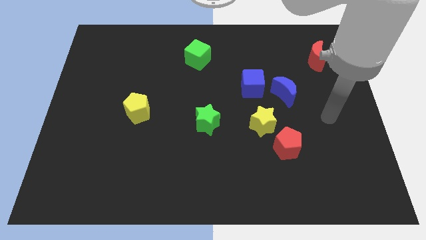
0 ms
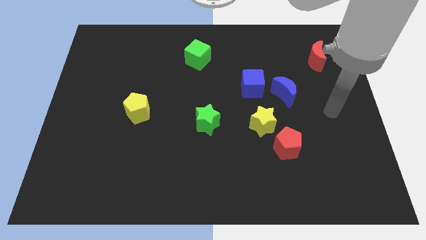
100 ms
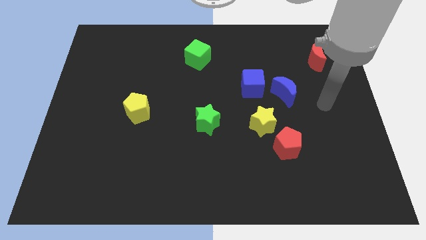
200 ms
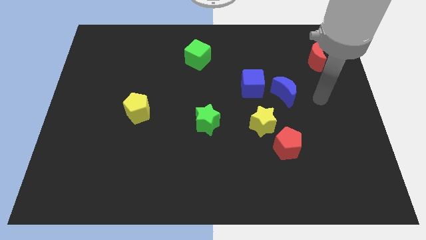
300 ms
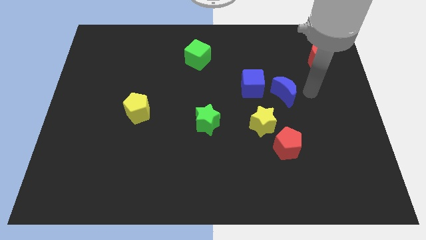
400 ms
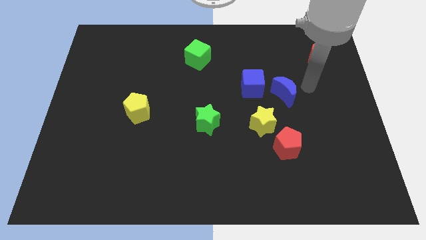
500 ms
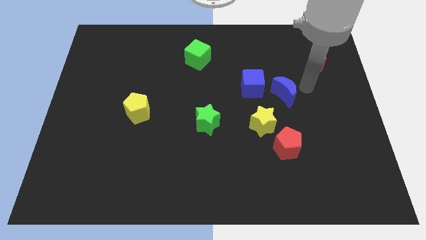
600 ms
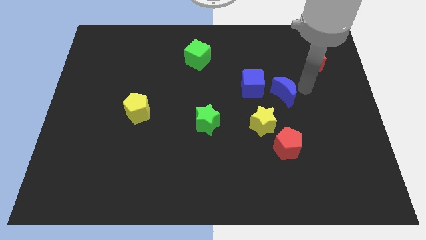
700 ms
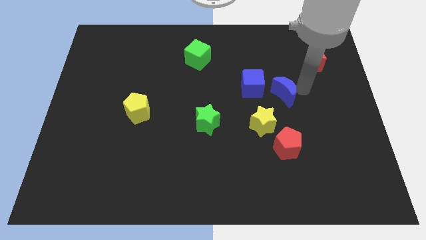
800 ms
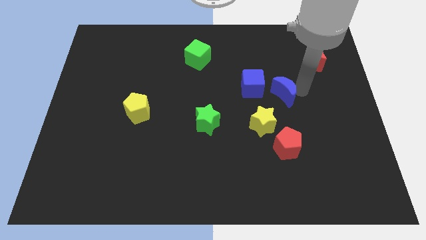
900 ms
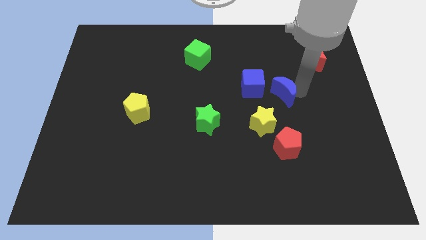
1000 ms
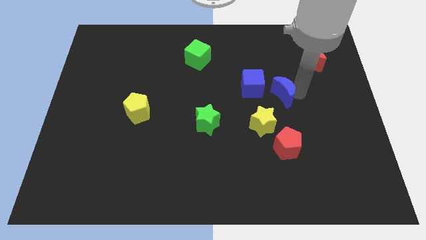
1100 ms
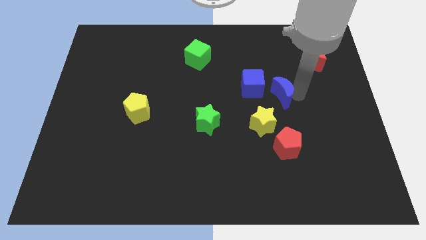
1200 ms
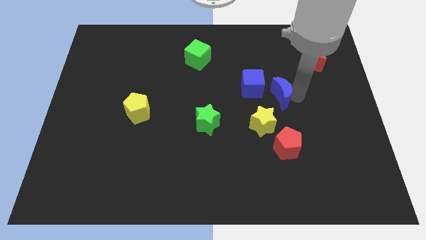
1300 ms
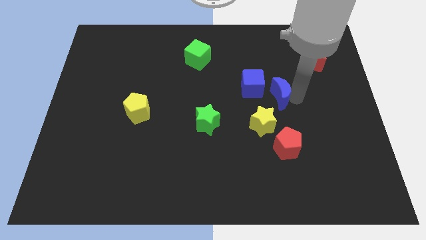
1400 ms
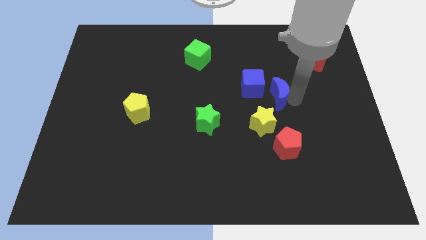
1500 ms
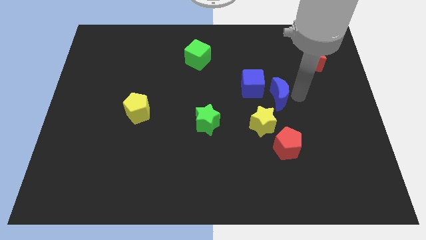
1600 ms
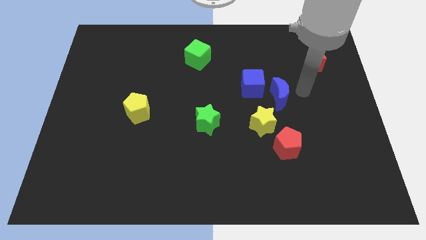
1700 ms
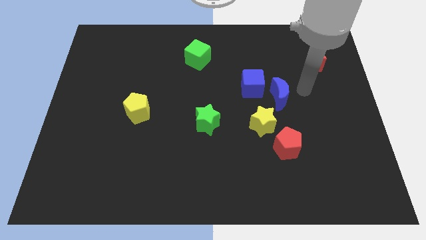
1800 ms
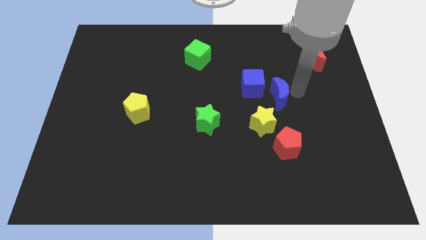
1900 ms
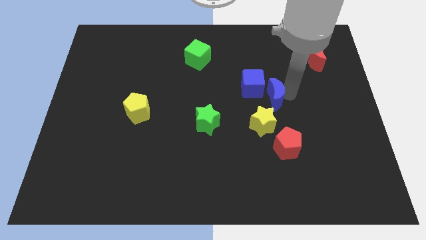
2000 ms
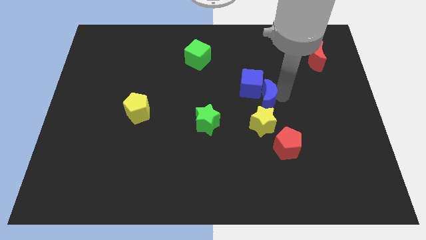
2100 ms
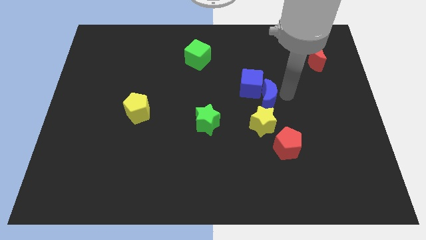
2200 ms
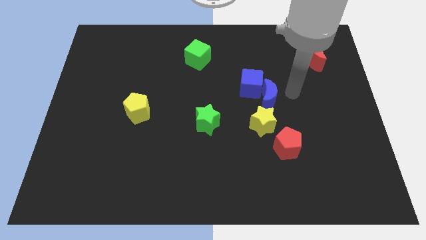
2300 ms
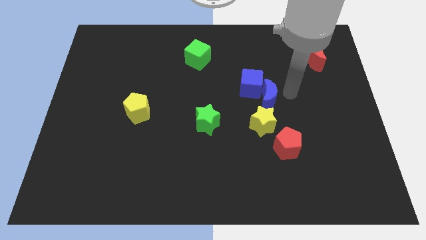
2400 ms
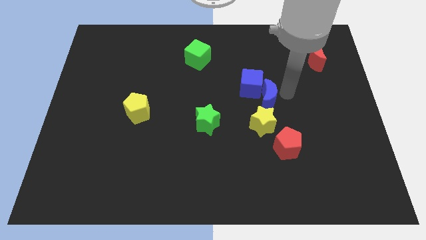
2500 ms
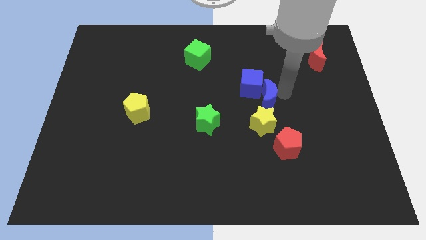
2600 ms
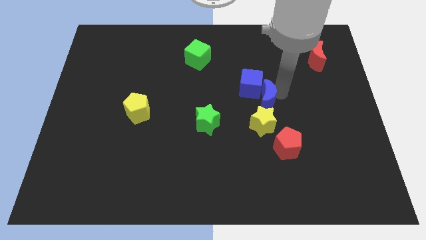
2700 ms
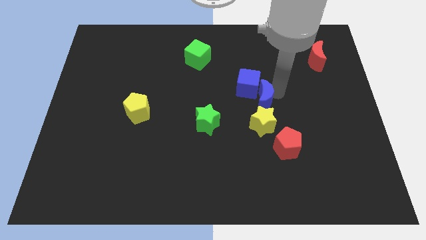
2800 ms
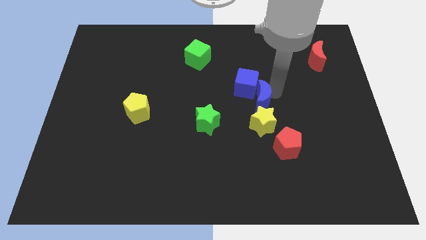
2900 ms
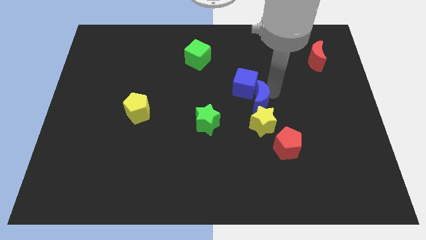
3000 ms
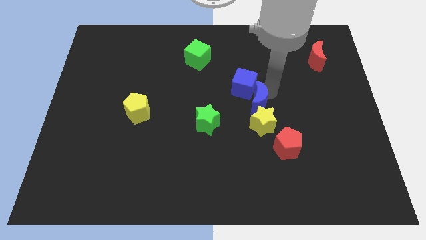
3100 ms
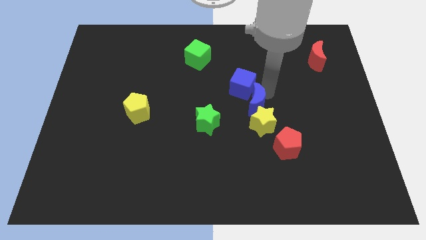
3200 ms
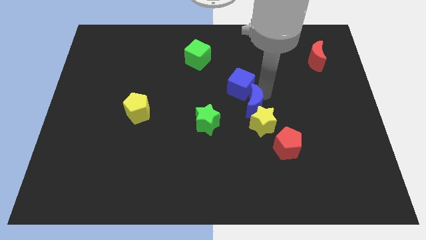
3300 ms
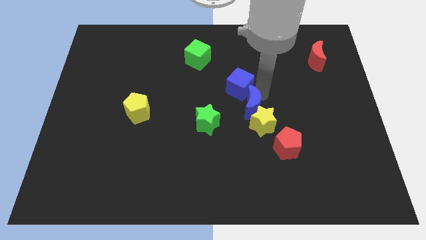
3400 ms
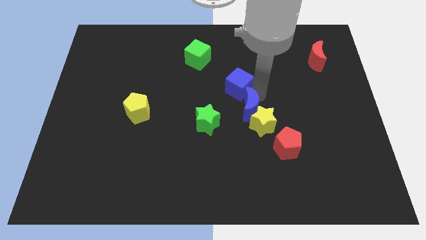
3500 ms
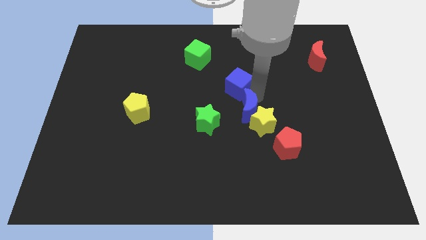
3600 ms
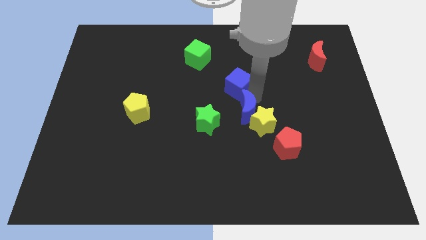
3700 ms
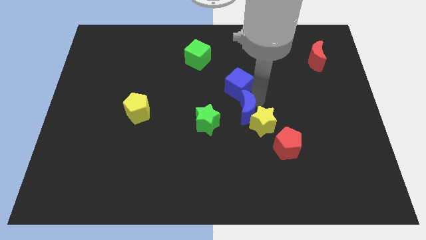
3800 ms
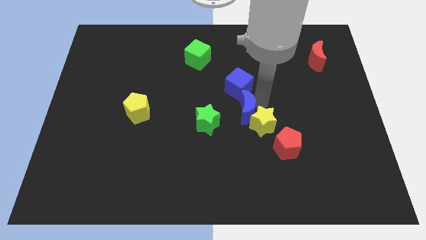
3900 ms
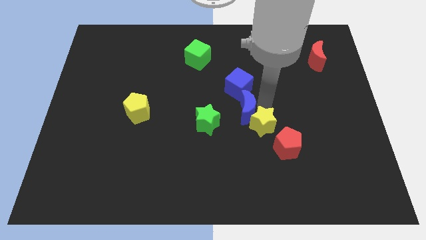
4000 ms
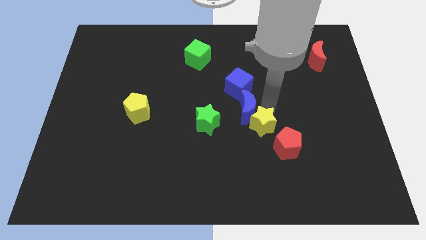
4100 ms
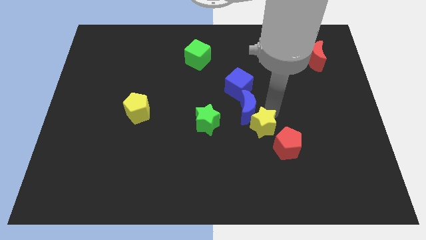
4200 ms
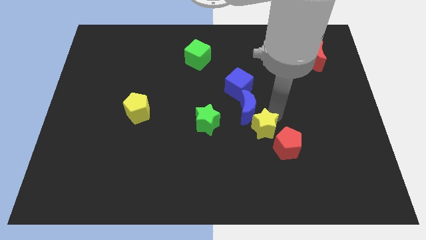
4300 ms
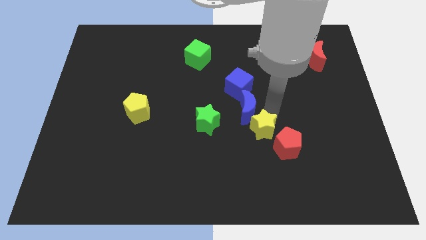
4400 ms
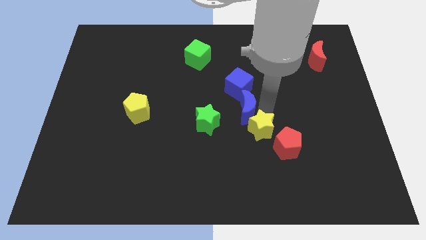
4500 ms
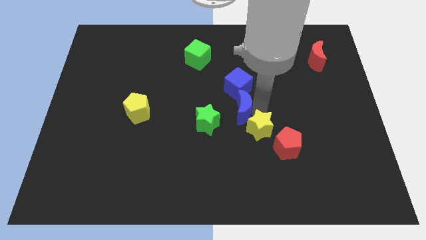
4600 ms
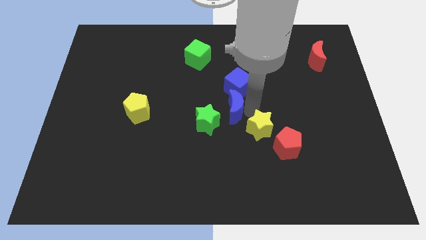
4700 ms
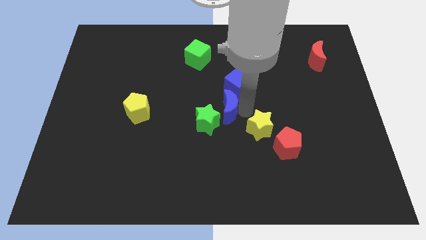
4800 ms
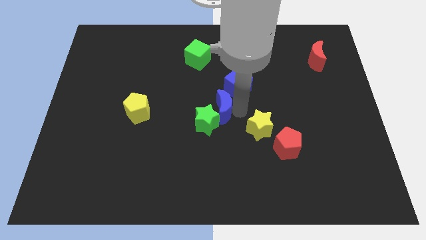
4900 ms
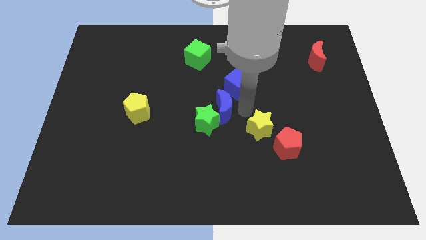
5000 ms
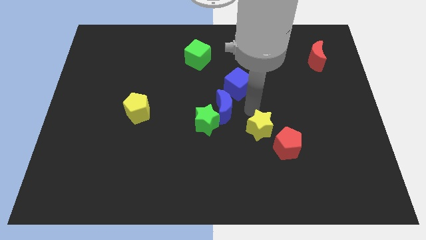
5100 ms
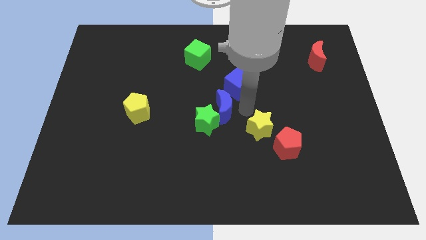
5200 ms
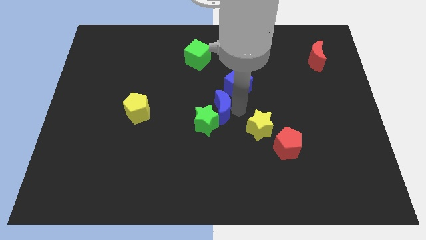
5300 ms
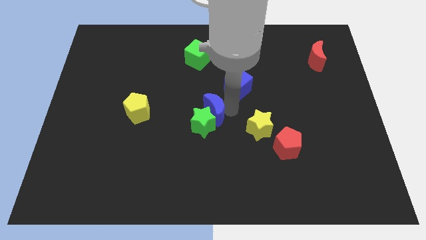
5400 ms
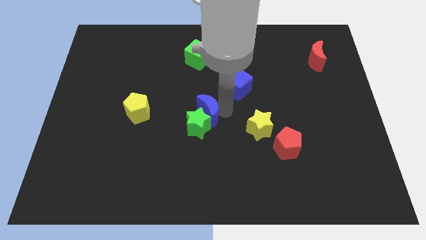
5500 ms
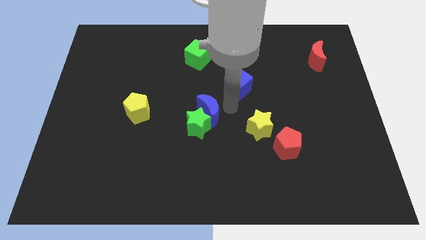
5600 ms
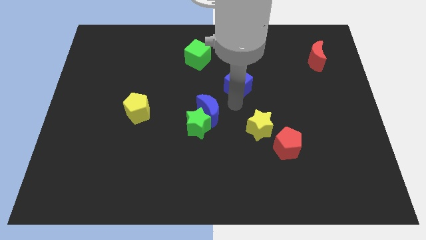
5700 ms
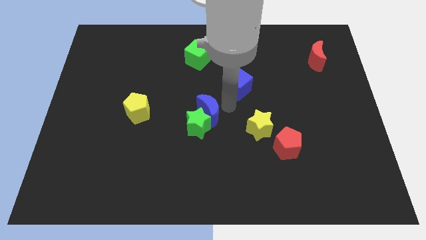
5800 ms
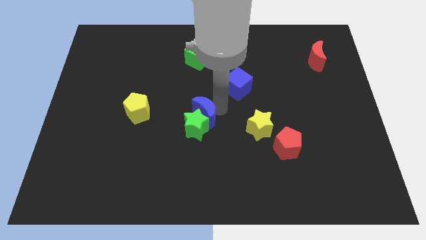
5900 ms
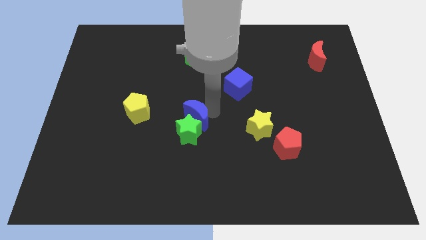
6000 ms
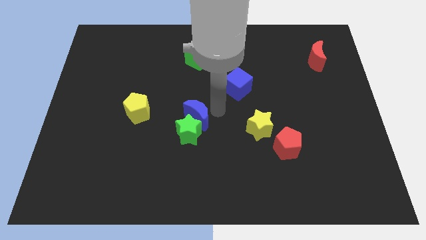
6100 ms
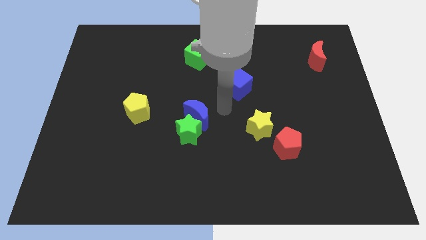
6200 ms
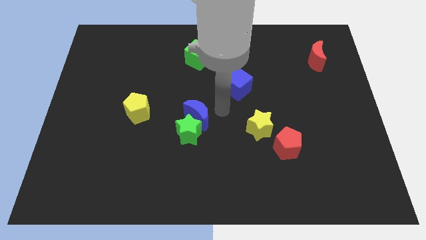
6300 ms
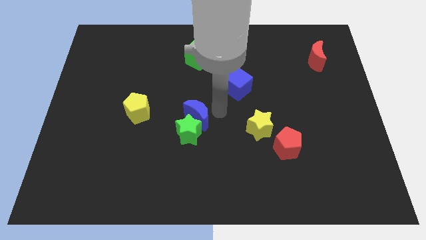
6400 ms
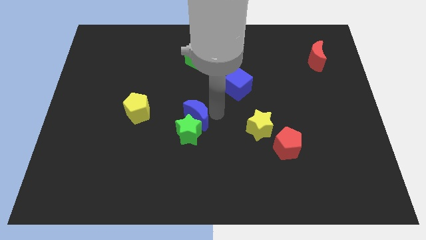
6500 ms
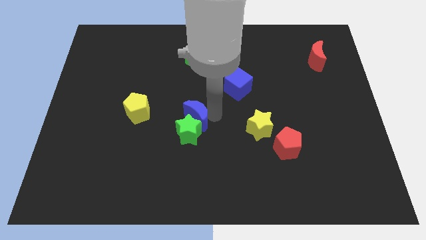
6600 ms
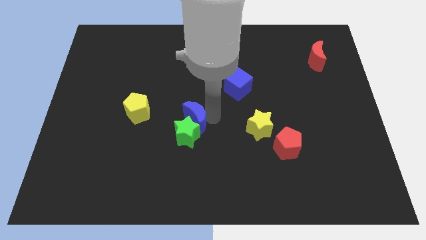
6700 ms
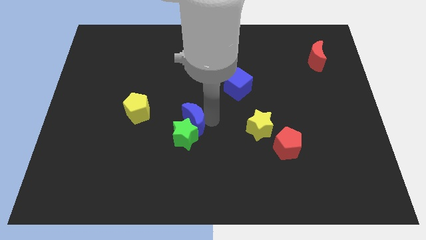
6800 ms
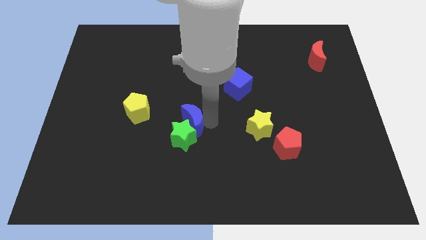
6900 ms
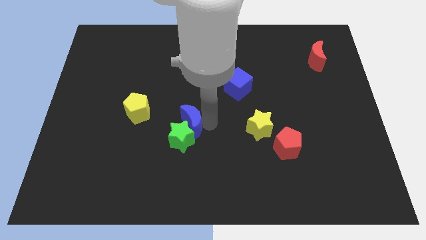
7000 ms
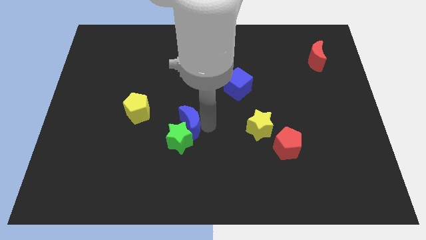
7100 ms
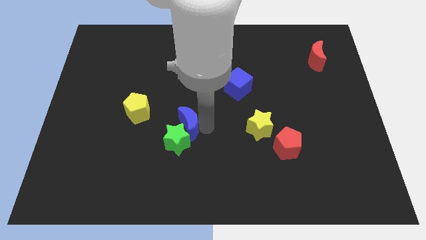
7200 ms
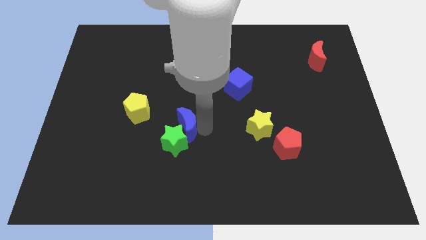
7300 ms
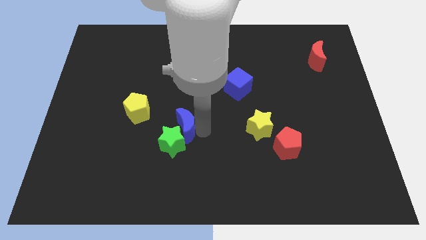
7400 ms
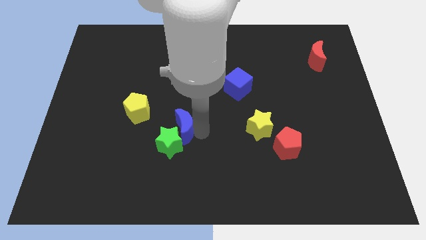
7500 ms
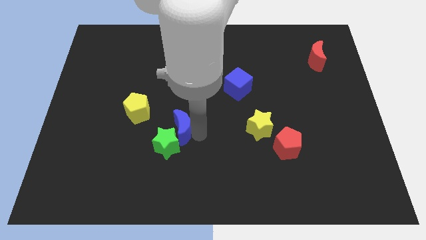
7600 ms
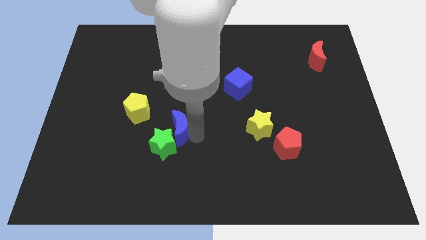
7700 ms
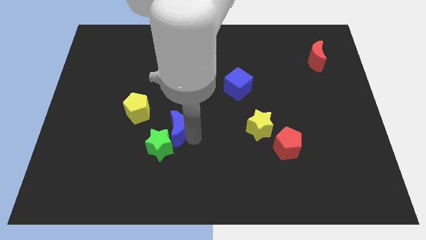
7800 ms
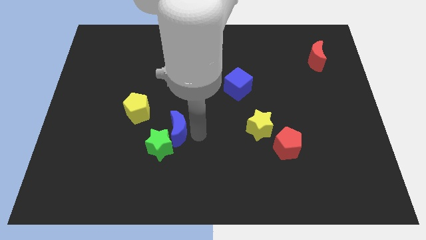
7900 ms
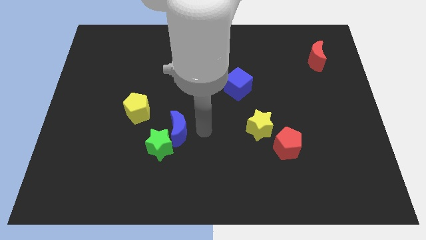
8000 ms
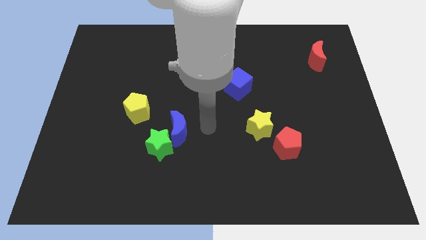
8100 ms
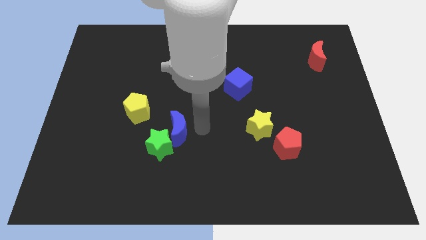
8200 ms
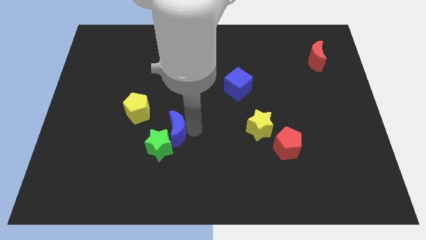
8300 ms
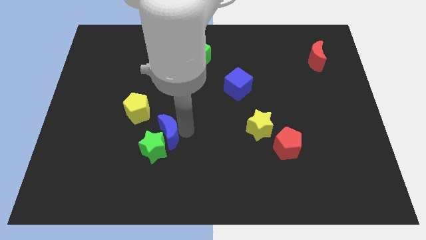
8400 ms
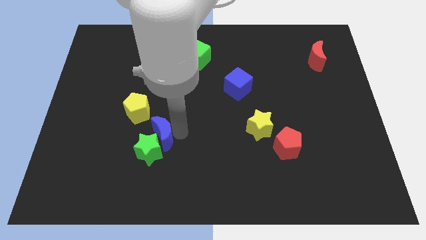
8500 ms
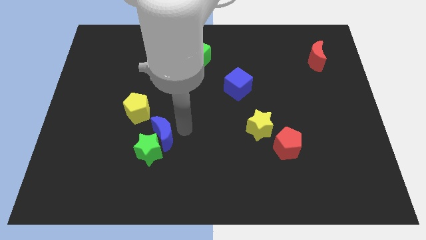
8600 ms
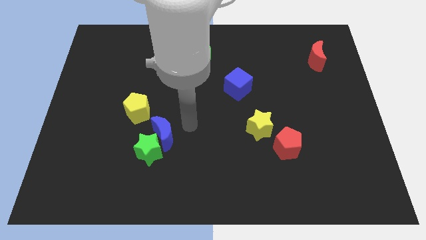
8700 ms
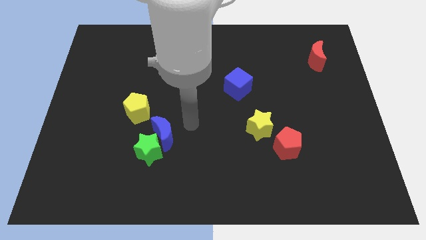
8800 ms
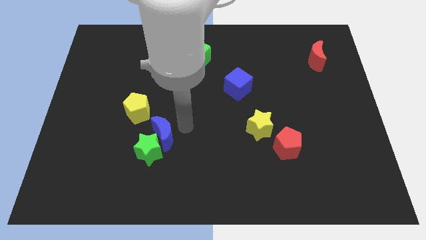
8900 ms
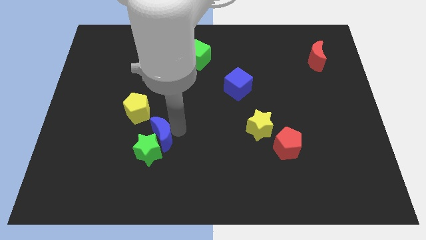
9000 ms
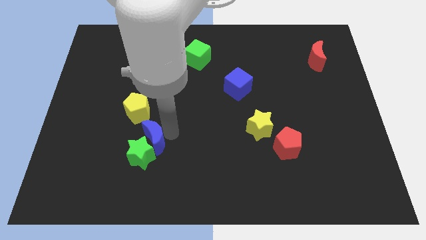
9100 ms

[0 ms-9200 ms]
move the blue moon to the bottom of the yellow pentagon
